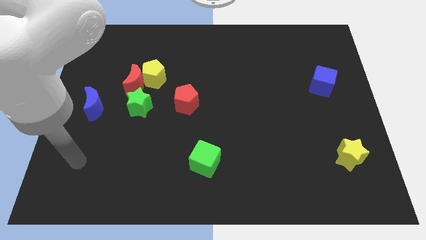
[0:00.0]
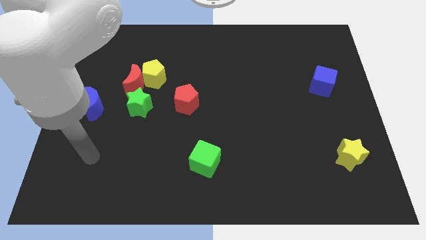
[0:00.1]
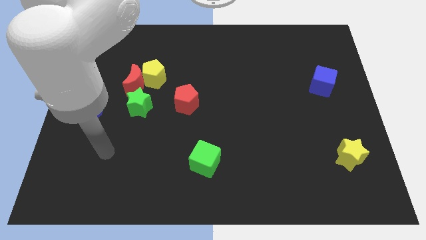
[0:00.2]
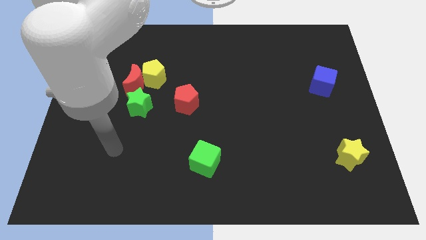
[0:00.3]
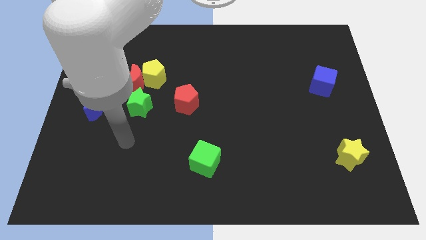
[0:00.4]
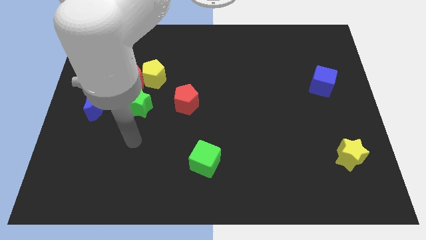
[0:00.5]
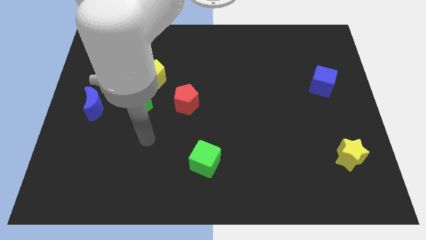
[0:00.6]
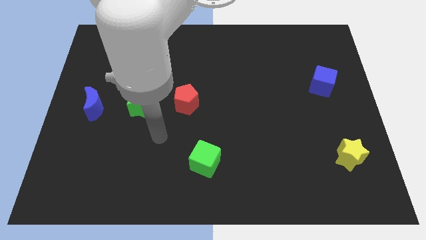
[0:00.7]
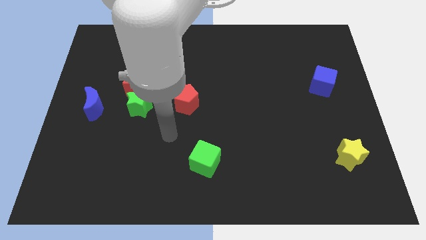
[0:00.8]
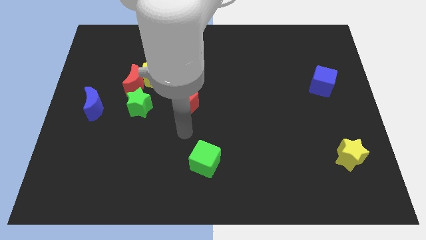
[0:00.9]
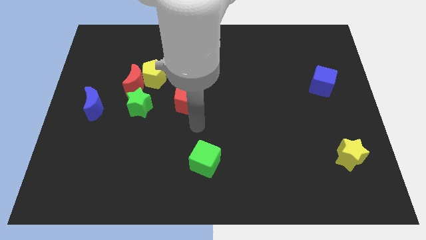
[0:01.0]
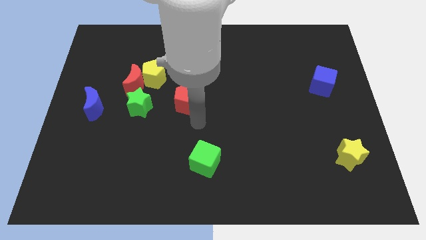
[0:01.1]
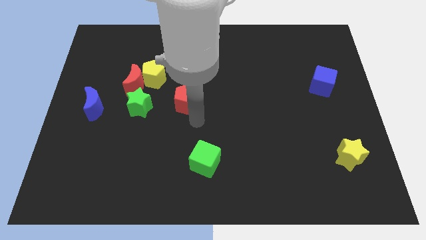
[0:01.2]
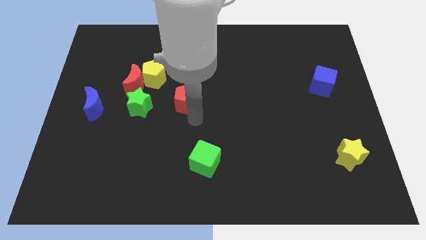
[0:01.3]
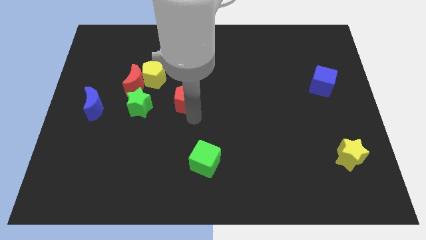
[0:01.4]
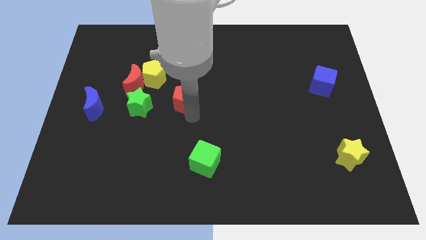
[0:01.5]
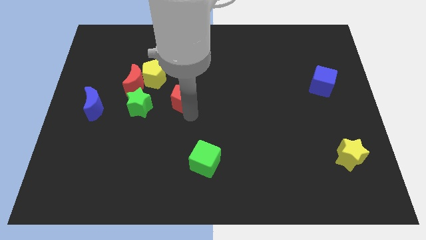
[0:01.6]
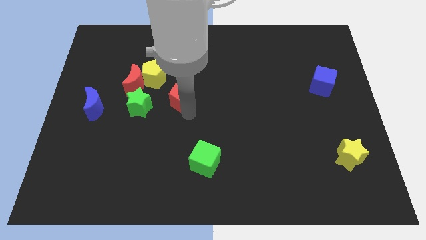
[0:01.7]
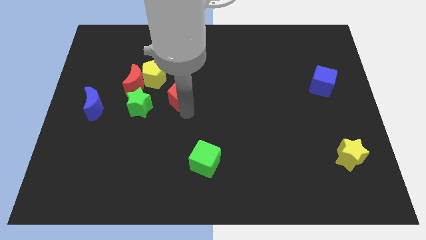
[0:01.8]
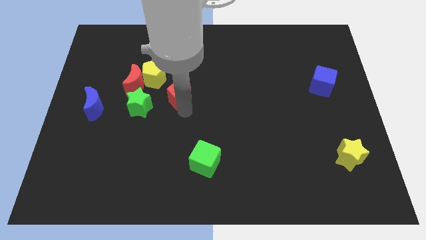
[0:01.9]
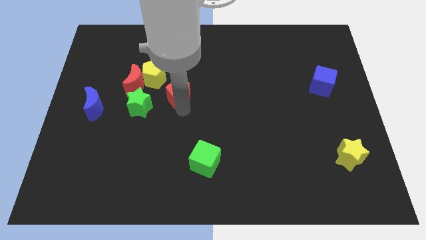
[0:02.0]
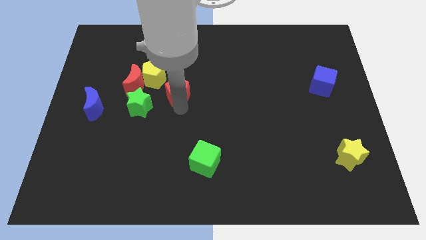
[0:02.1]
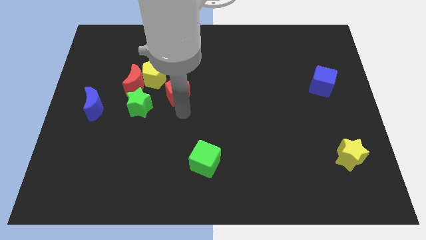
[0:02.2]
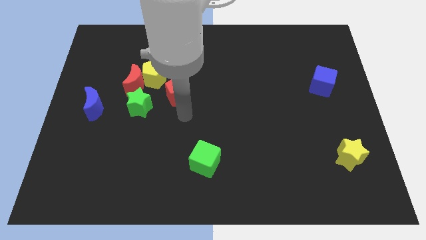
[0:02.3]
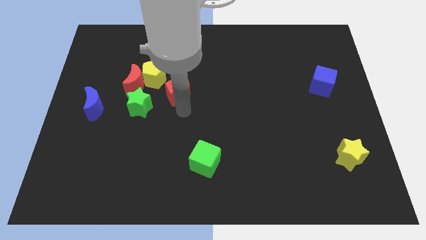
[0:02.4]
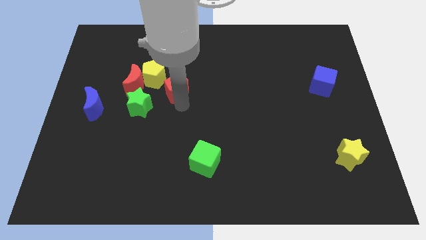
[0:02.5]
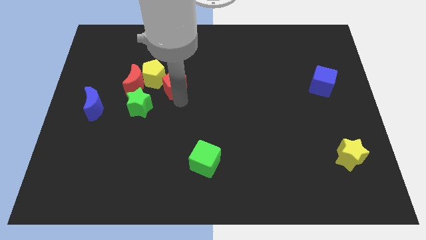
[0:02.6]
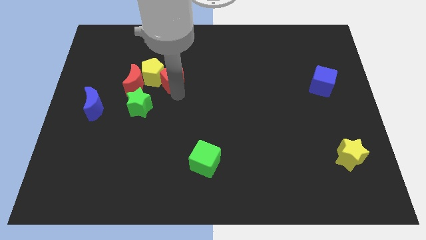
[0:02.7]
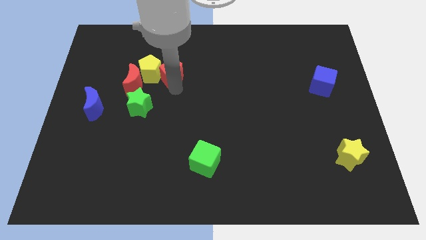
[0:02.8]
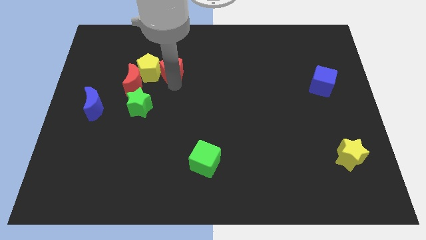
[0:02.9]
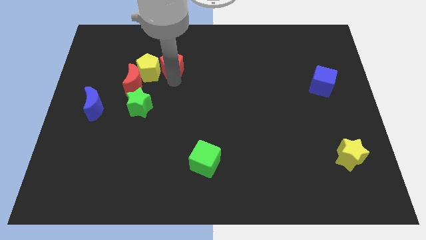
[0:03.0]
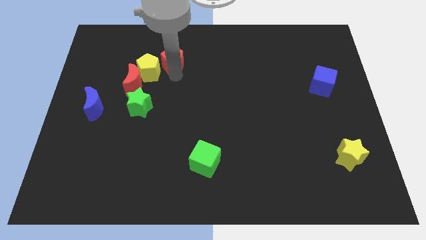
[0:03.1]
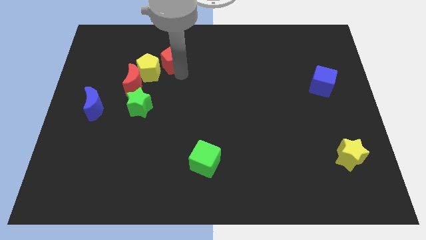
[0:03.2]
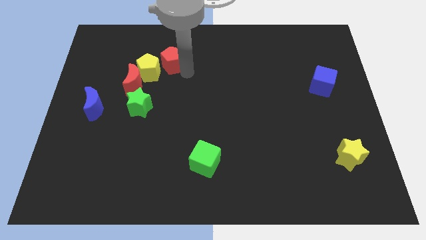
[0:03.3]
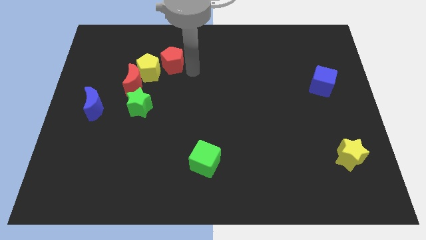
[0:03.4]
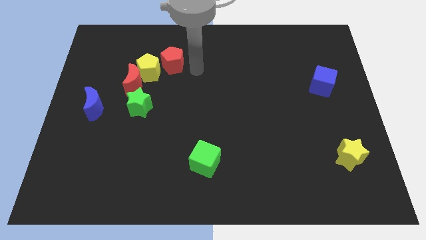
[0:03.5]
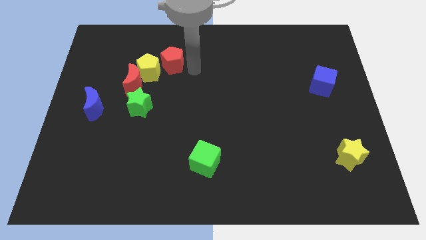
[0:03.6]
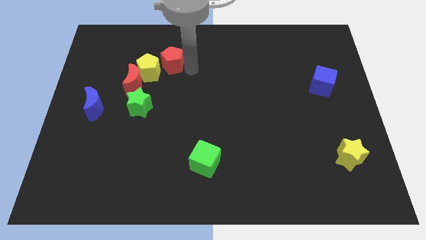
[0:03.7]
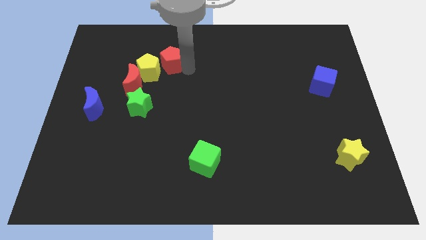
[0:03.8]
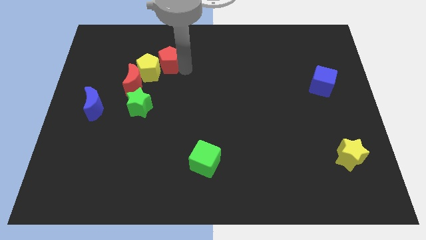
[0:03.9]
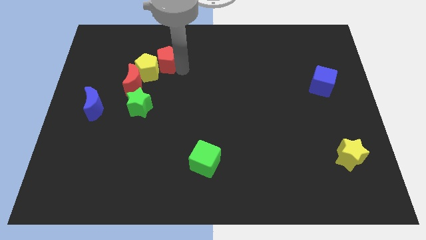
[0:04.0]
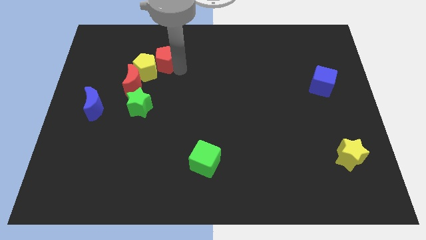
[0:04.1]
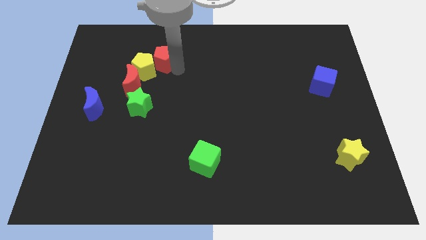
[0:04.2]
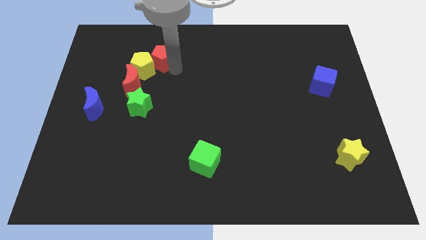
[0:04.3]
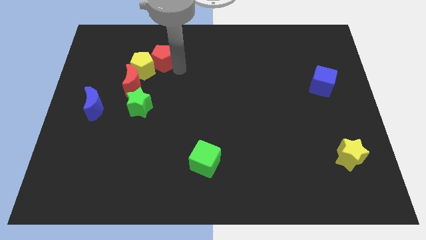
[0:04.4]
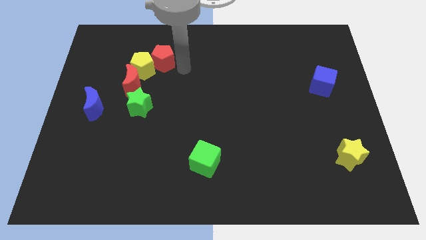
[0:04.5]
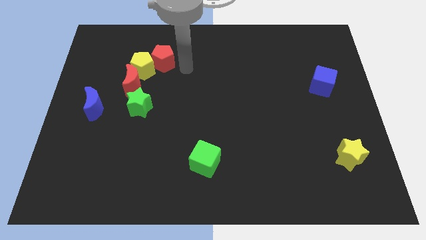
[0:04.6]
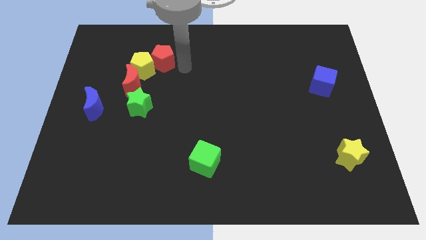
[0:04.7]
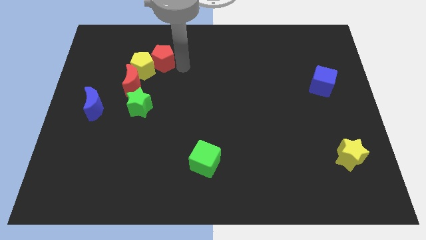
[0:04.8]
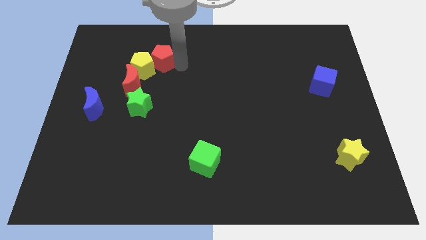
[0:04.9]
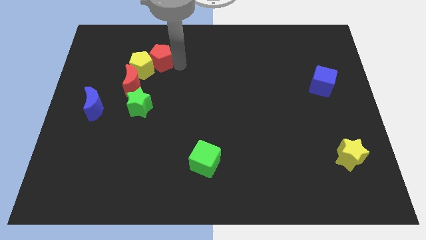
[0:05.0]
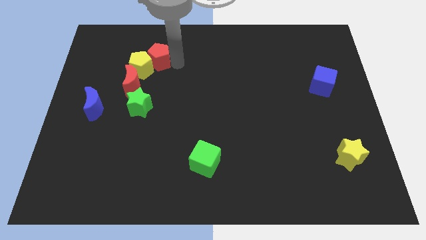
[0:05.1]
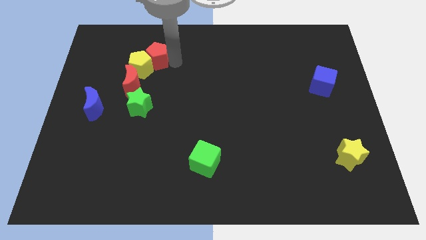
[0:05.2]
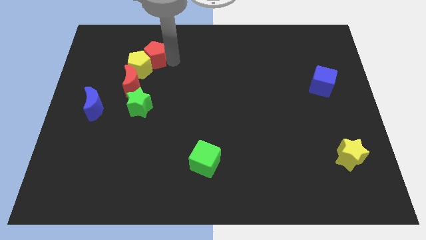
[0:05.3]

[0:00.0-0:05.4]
slide the red pentagon above the red moon

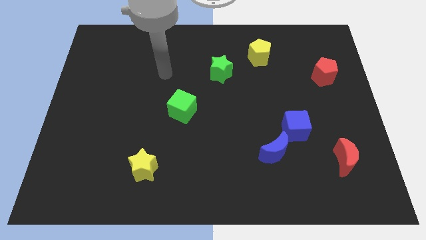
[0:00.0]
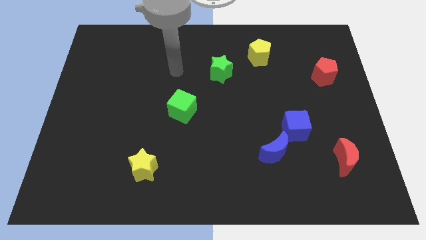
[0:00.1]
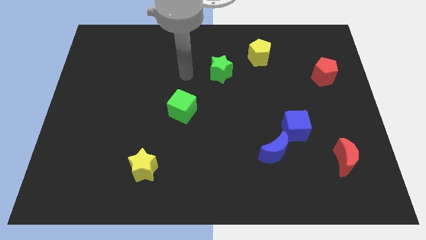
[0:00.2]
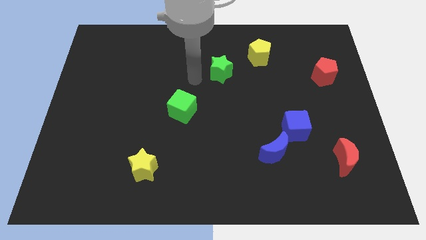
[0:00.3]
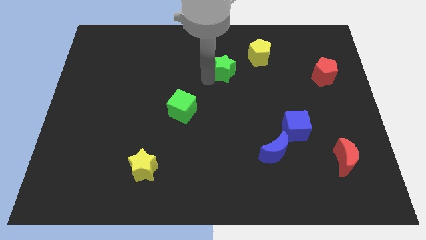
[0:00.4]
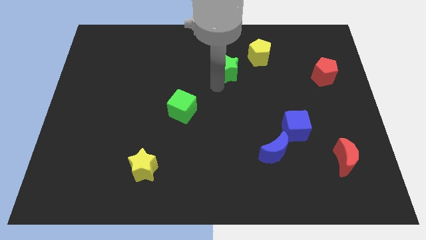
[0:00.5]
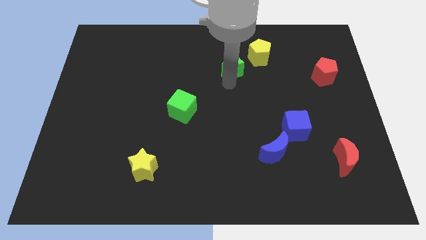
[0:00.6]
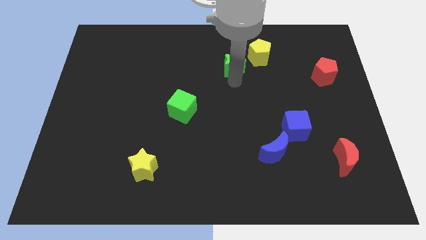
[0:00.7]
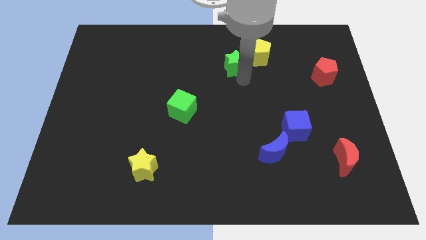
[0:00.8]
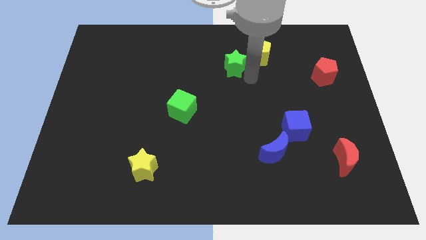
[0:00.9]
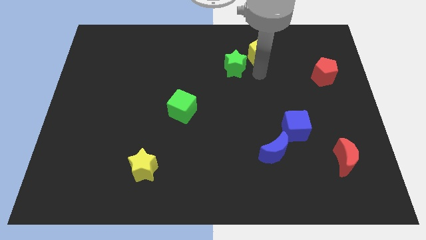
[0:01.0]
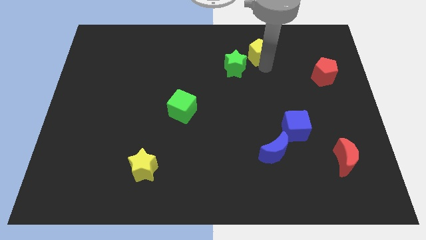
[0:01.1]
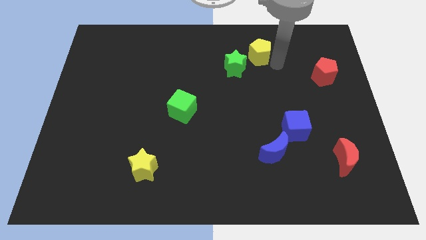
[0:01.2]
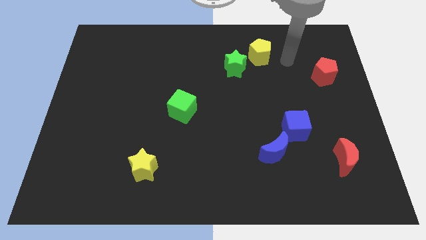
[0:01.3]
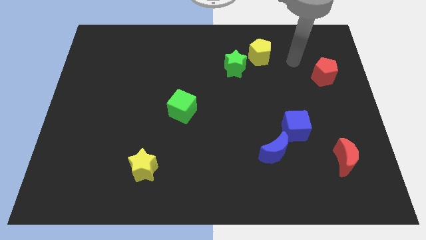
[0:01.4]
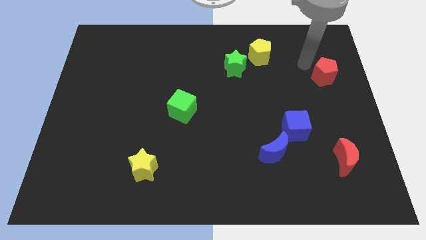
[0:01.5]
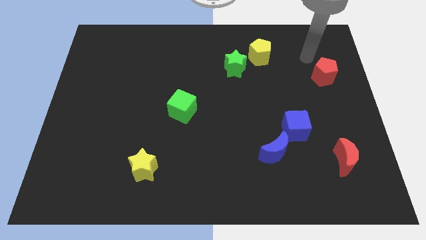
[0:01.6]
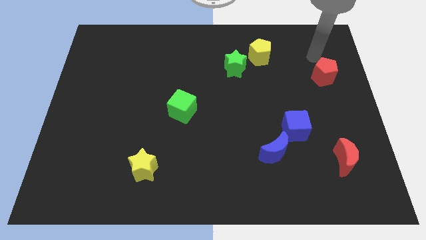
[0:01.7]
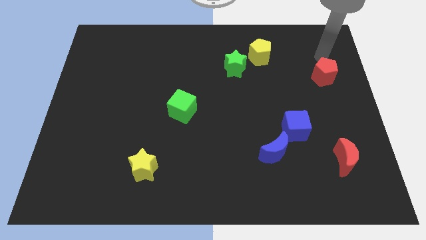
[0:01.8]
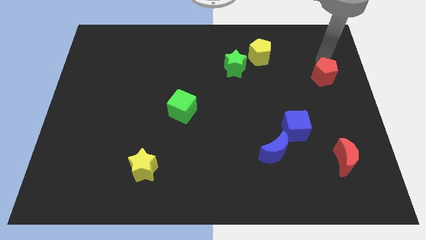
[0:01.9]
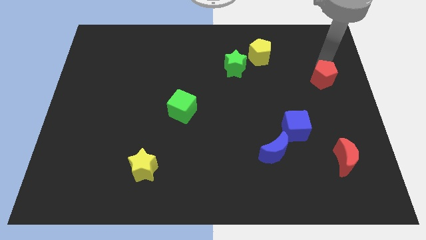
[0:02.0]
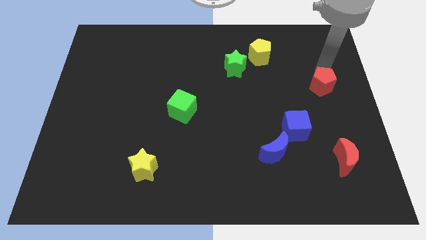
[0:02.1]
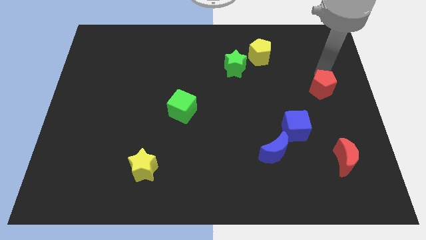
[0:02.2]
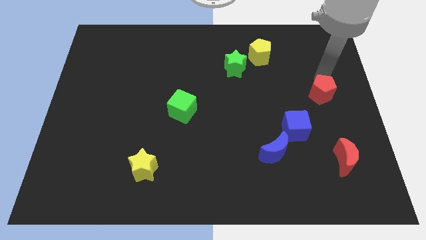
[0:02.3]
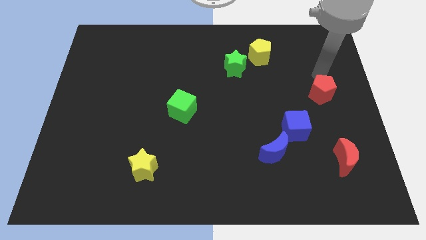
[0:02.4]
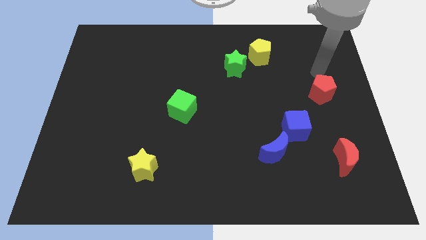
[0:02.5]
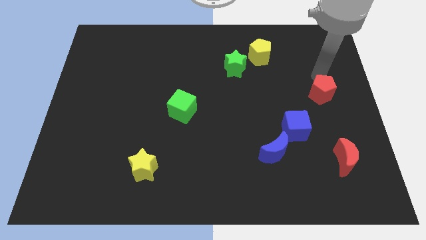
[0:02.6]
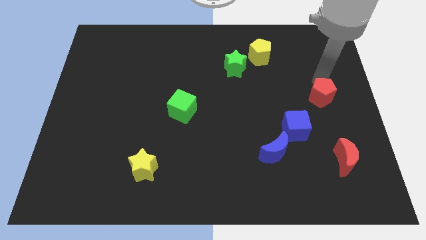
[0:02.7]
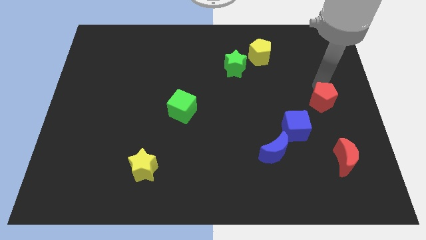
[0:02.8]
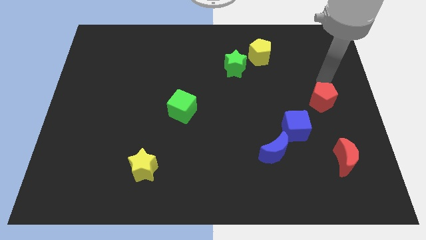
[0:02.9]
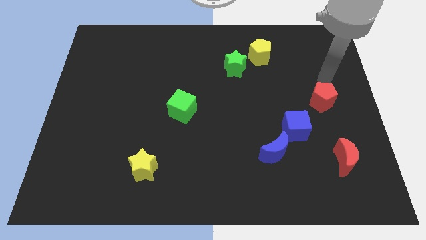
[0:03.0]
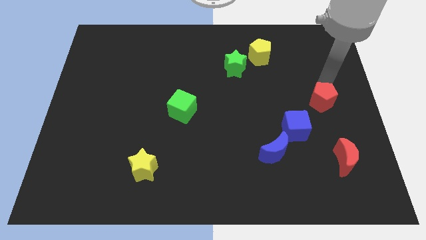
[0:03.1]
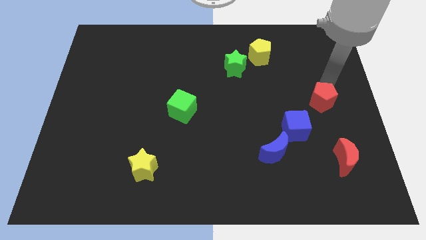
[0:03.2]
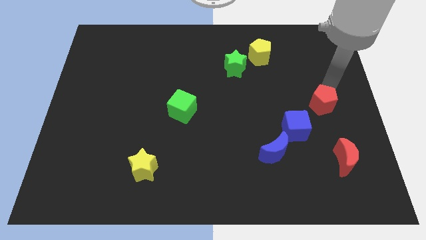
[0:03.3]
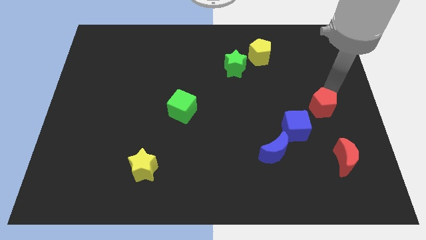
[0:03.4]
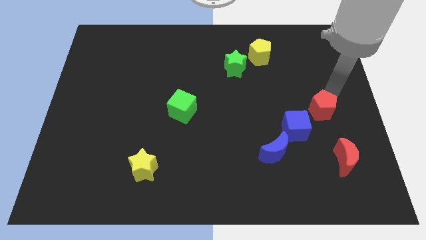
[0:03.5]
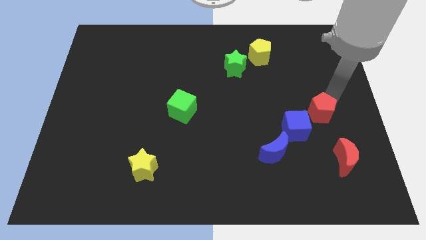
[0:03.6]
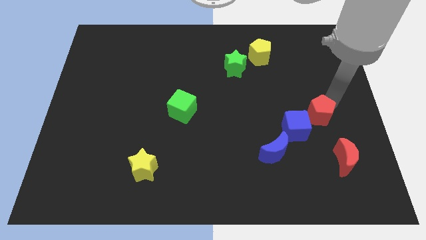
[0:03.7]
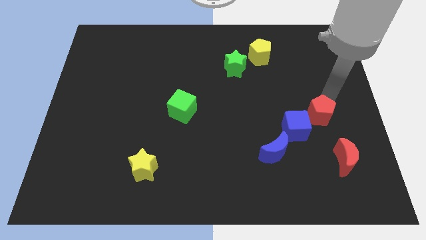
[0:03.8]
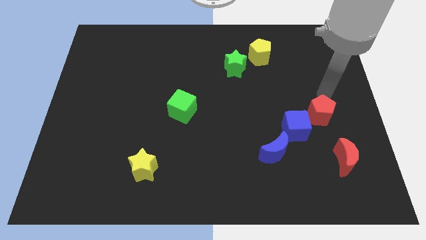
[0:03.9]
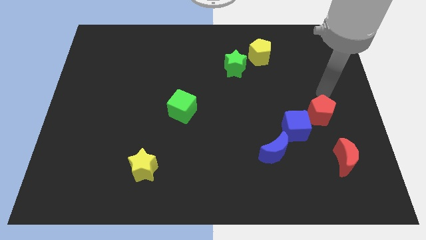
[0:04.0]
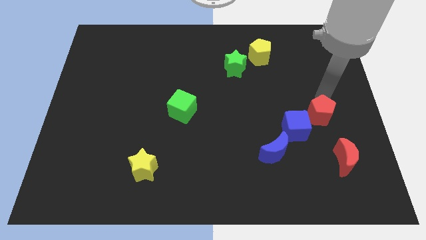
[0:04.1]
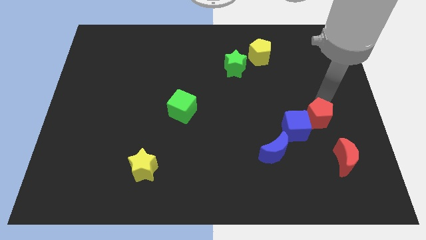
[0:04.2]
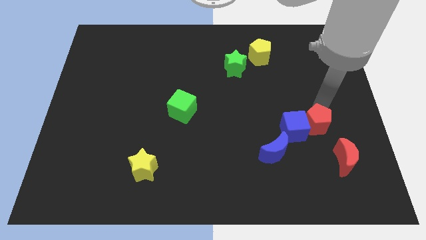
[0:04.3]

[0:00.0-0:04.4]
push the red pentagon to the top left side of the red moon
